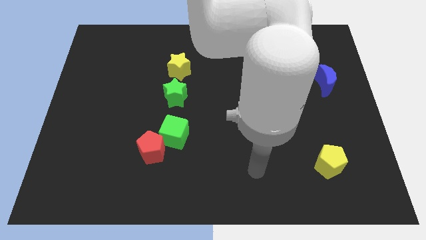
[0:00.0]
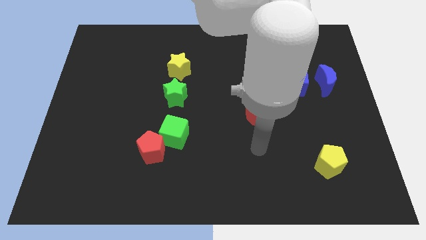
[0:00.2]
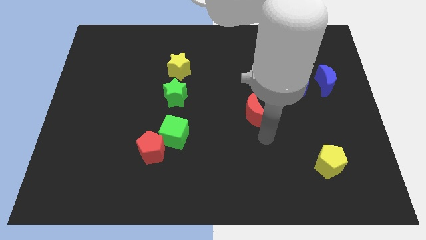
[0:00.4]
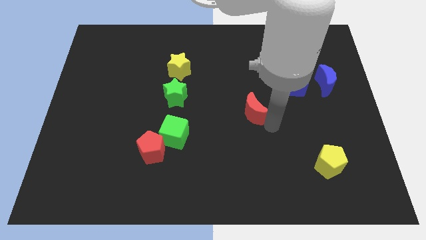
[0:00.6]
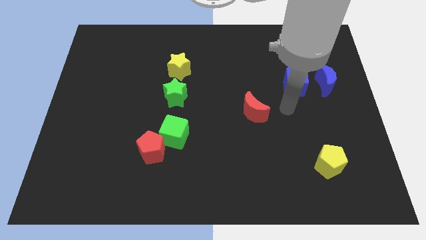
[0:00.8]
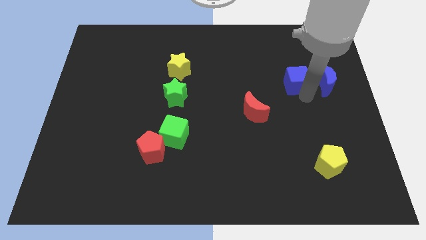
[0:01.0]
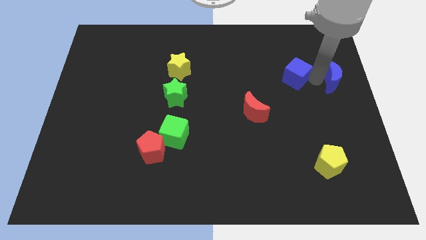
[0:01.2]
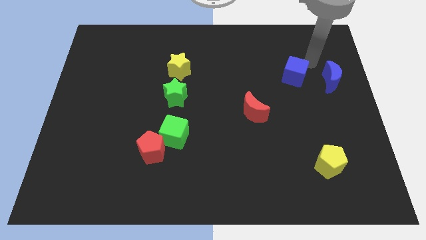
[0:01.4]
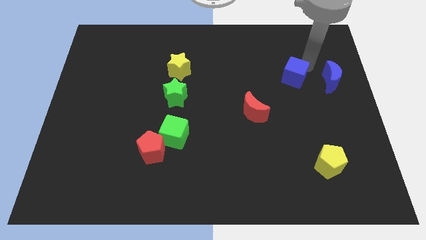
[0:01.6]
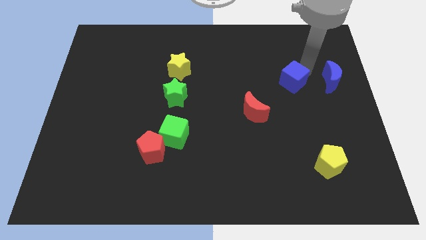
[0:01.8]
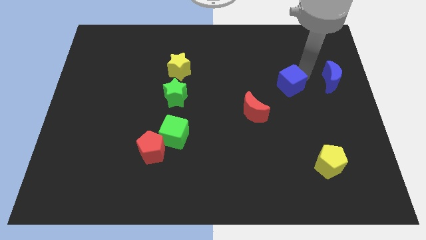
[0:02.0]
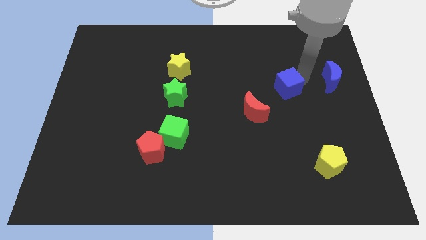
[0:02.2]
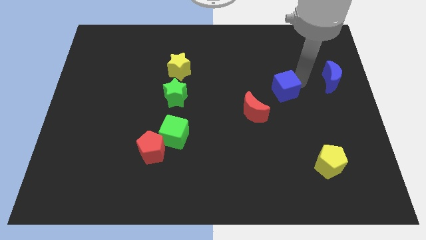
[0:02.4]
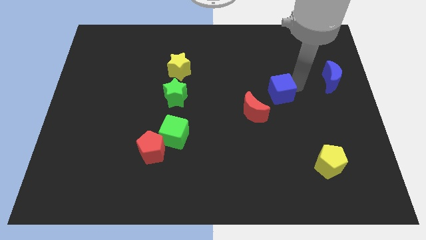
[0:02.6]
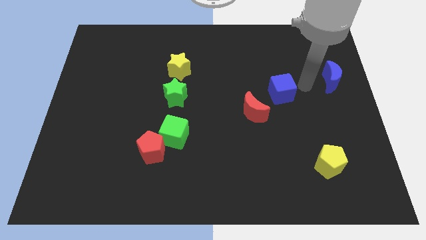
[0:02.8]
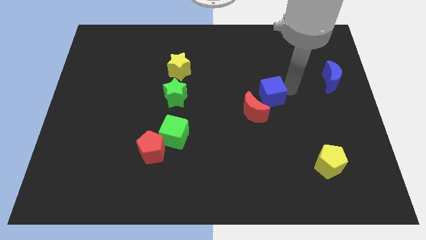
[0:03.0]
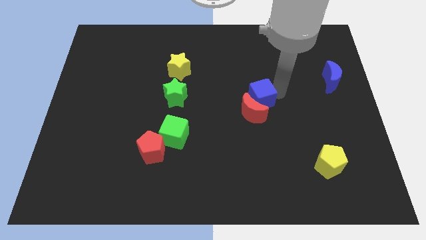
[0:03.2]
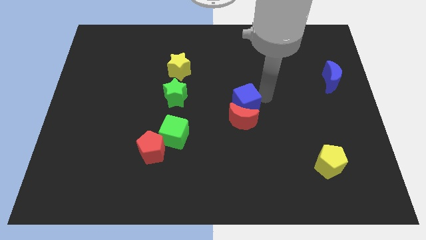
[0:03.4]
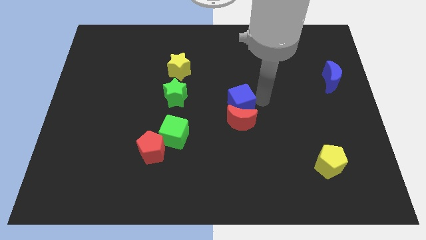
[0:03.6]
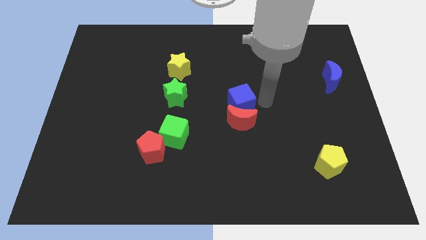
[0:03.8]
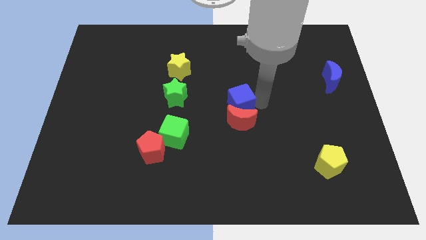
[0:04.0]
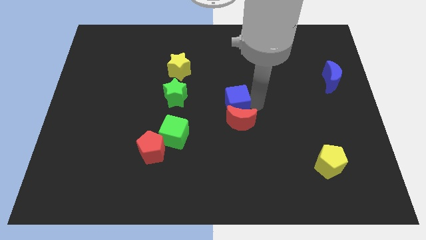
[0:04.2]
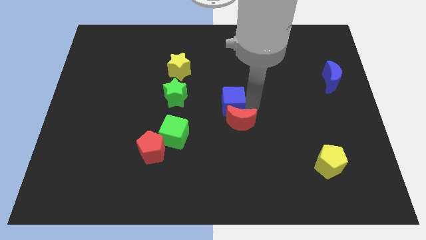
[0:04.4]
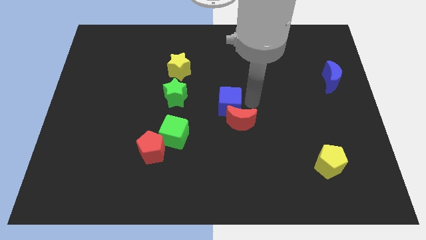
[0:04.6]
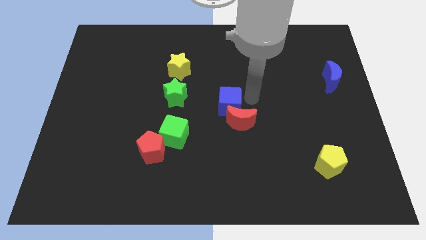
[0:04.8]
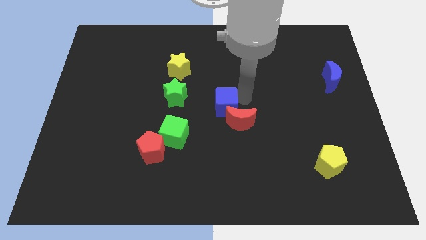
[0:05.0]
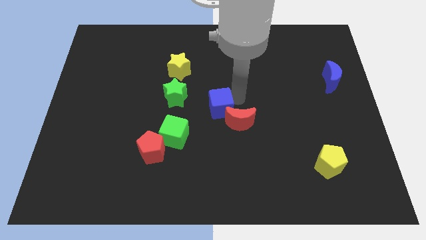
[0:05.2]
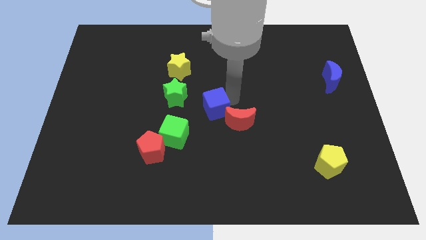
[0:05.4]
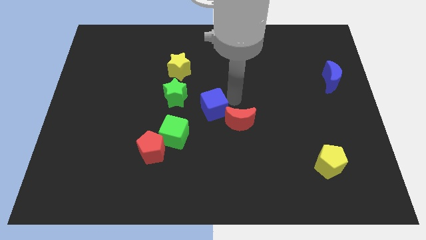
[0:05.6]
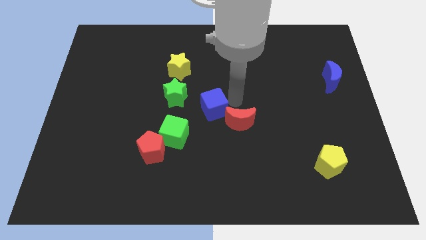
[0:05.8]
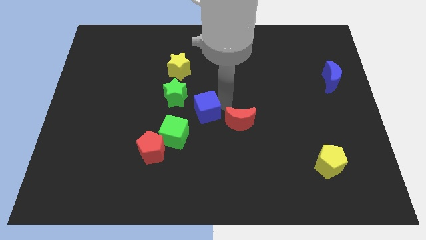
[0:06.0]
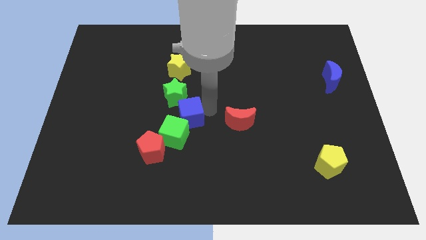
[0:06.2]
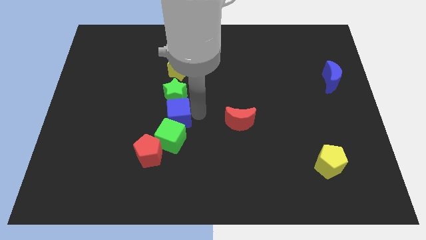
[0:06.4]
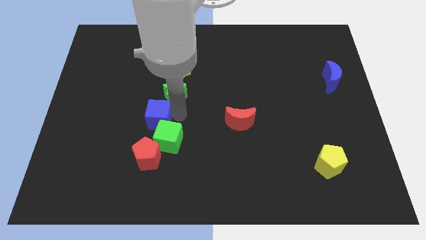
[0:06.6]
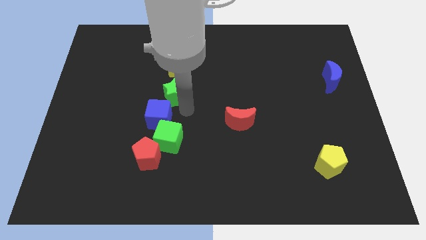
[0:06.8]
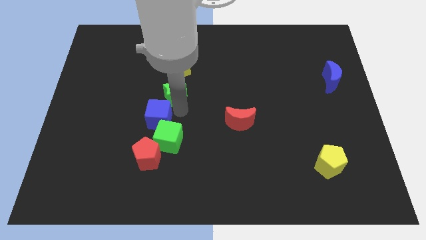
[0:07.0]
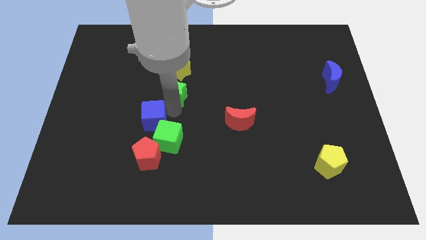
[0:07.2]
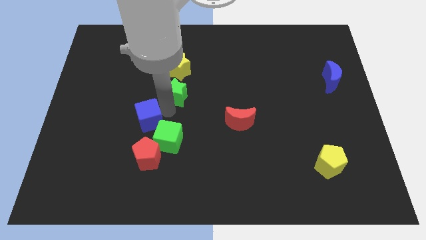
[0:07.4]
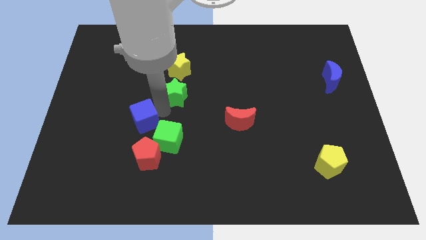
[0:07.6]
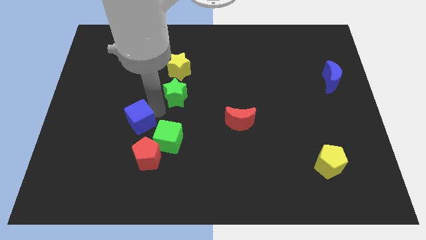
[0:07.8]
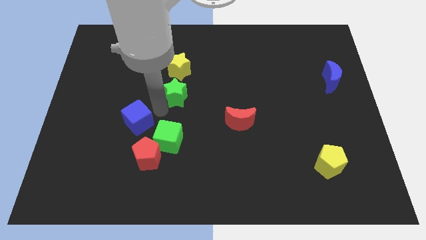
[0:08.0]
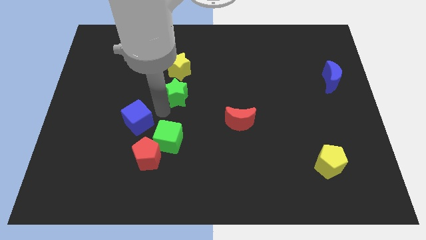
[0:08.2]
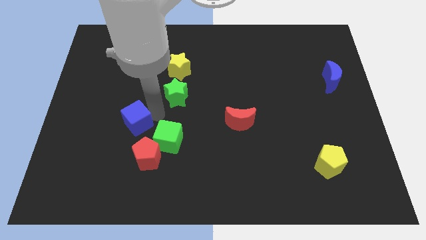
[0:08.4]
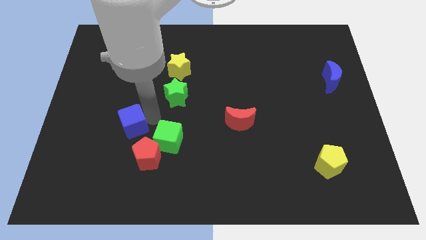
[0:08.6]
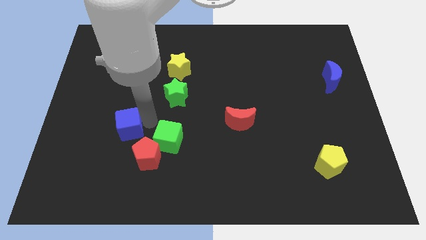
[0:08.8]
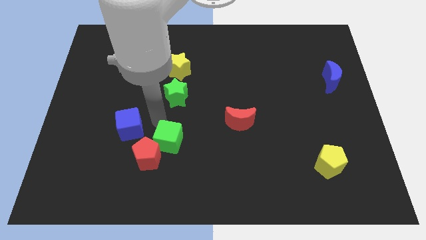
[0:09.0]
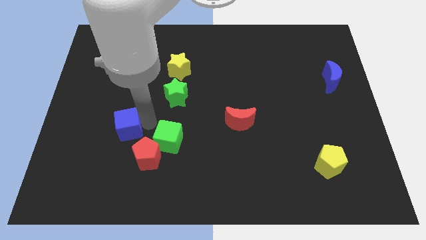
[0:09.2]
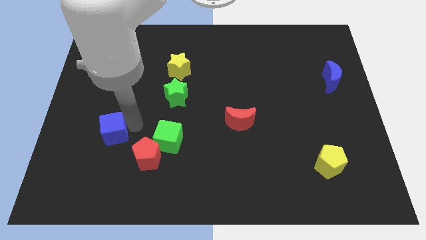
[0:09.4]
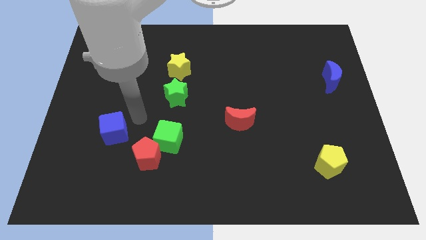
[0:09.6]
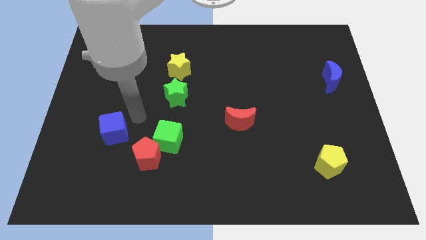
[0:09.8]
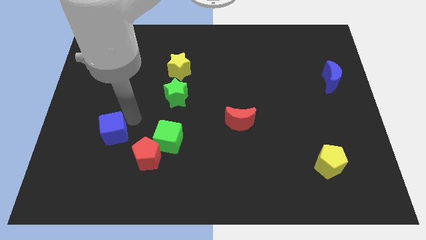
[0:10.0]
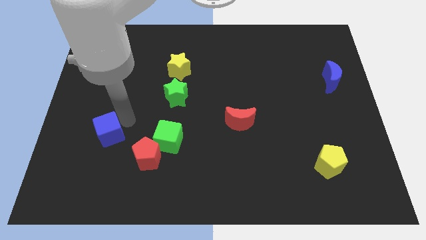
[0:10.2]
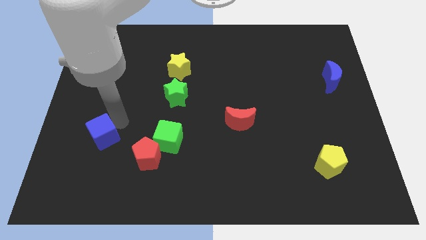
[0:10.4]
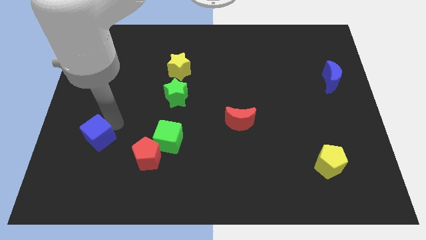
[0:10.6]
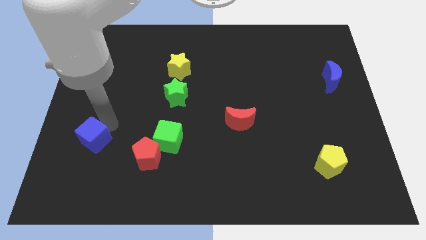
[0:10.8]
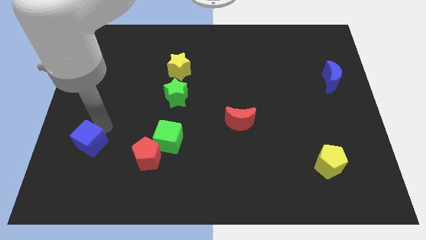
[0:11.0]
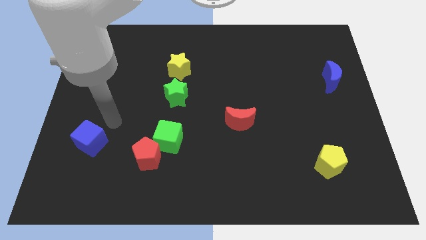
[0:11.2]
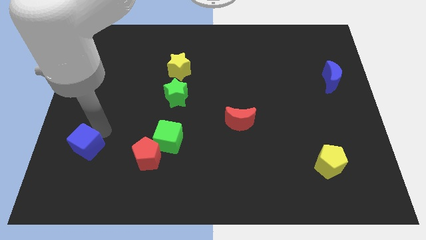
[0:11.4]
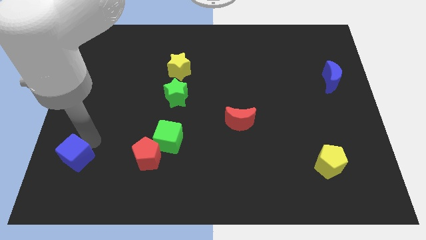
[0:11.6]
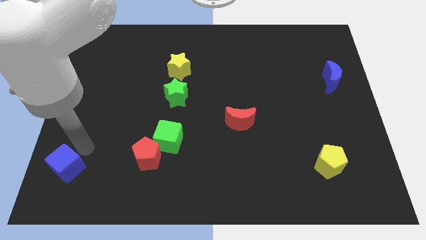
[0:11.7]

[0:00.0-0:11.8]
push the blue cube to the bottom left of the board
